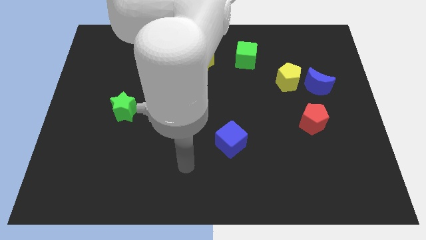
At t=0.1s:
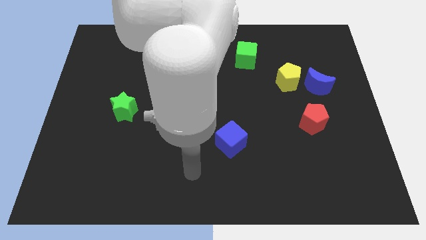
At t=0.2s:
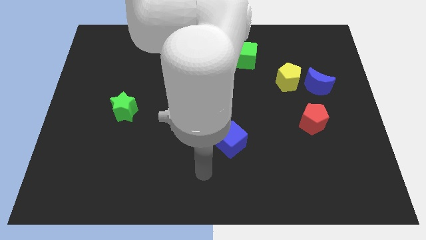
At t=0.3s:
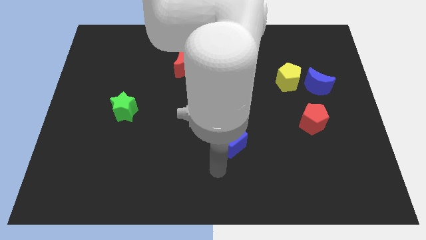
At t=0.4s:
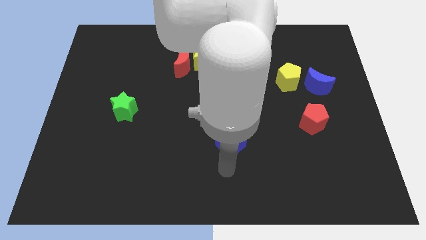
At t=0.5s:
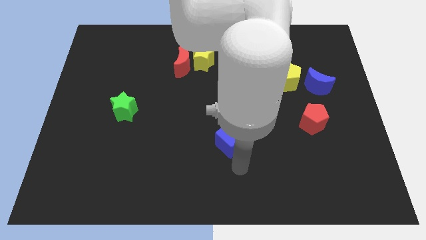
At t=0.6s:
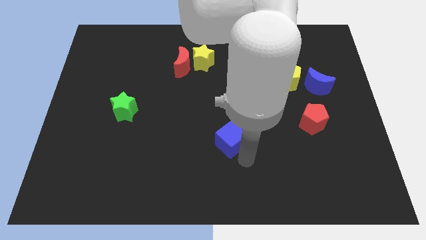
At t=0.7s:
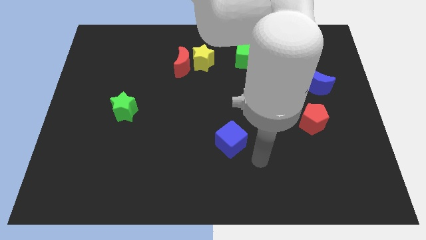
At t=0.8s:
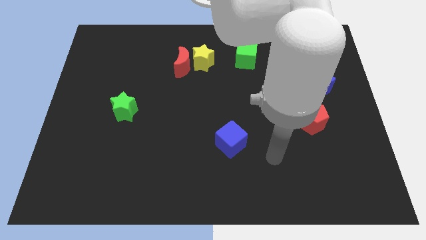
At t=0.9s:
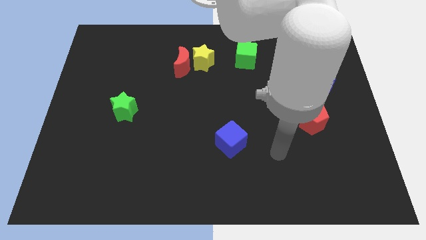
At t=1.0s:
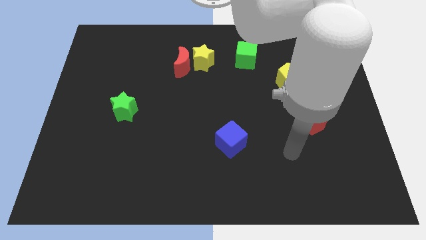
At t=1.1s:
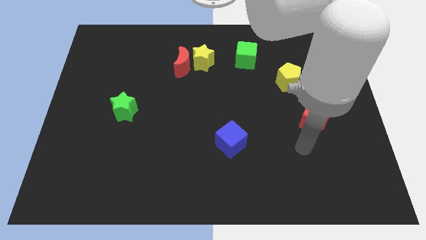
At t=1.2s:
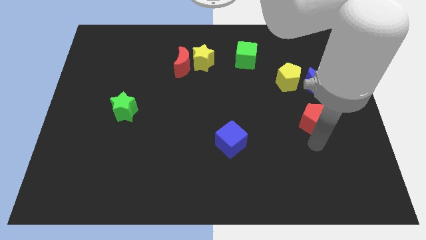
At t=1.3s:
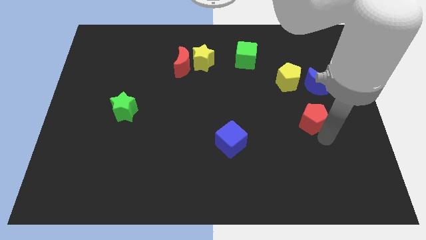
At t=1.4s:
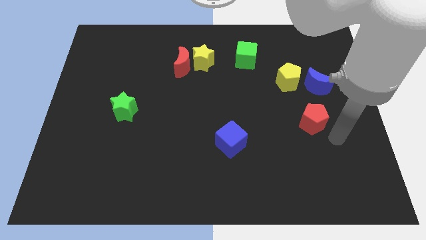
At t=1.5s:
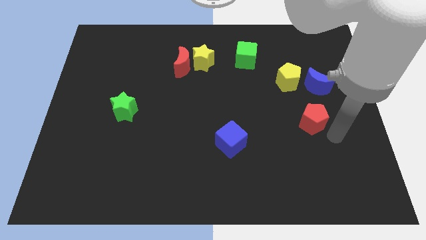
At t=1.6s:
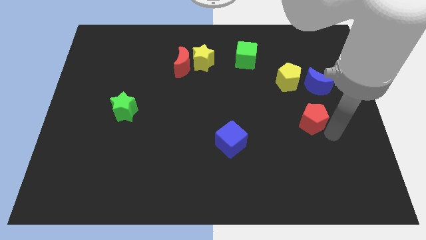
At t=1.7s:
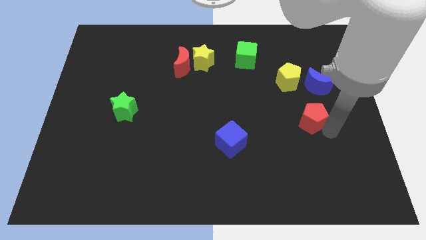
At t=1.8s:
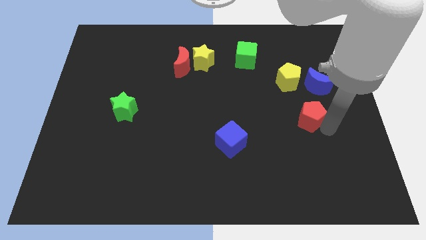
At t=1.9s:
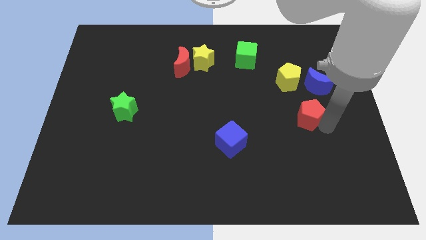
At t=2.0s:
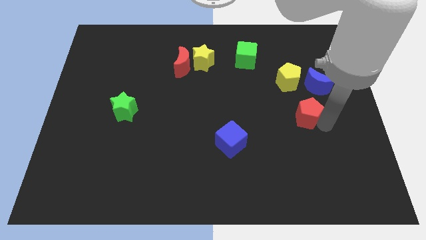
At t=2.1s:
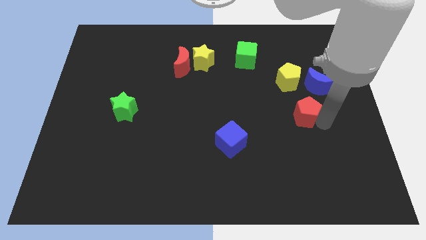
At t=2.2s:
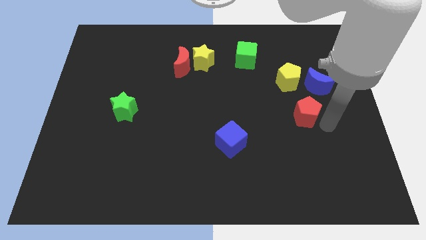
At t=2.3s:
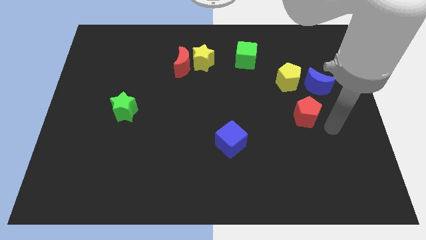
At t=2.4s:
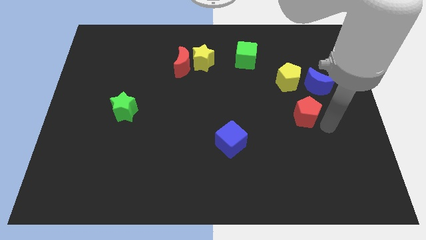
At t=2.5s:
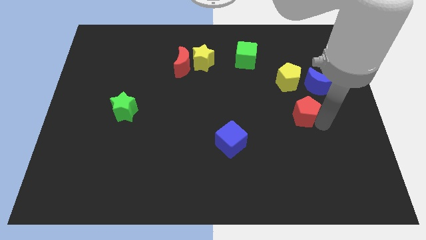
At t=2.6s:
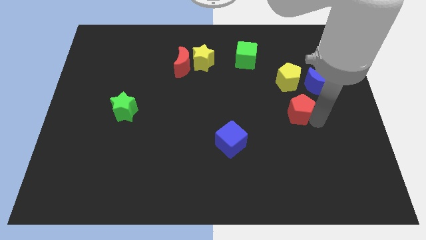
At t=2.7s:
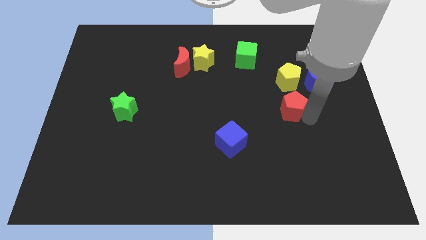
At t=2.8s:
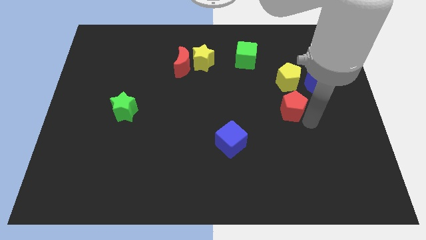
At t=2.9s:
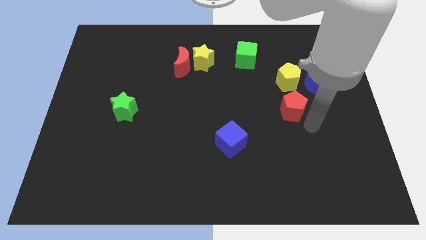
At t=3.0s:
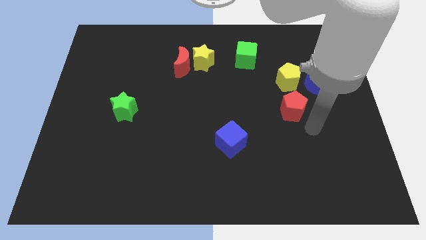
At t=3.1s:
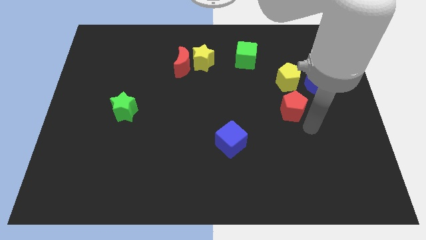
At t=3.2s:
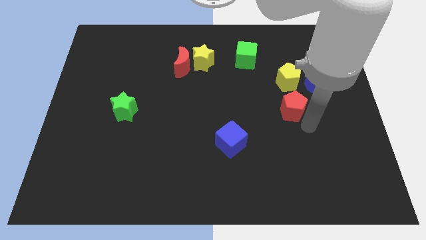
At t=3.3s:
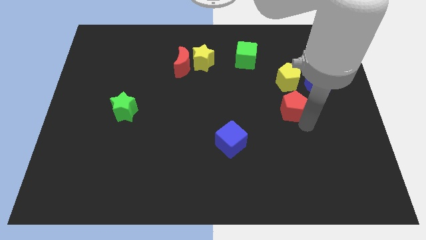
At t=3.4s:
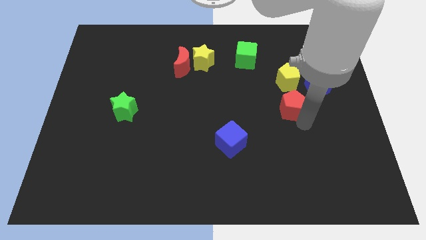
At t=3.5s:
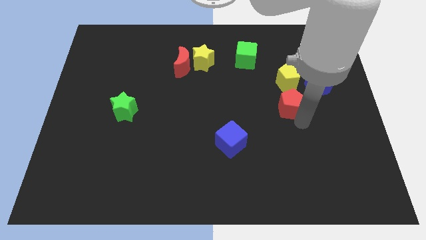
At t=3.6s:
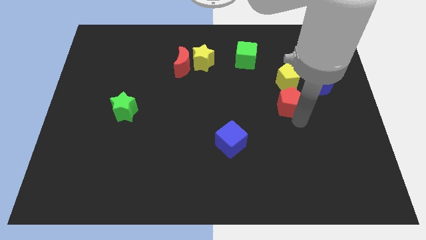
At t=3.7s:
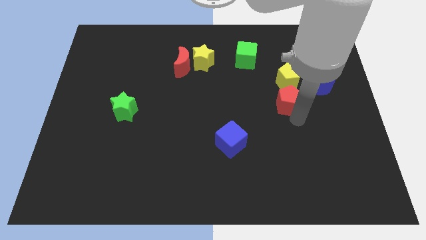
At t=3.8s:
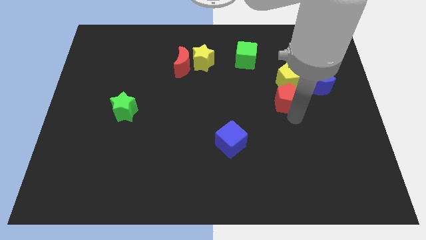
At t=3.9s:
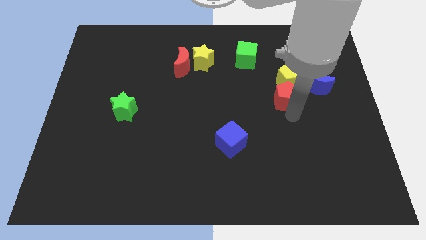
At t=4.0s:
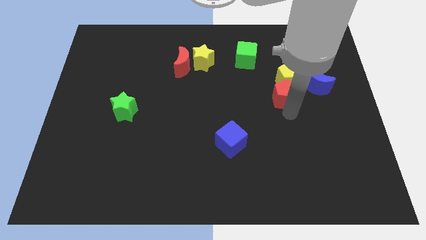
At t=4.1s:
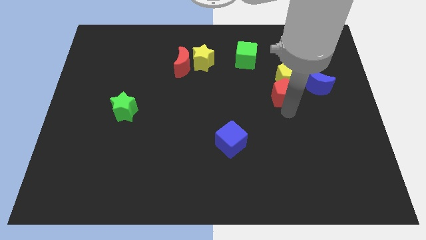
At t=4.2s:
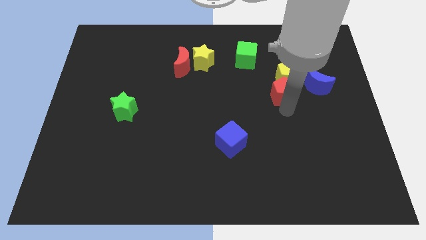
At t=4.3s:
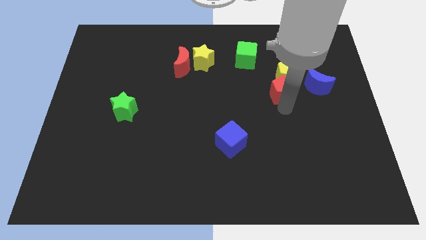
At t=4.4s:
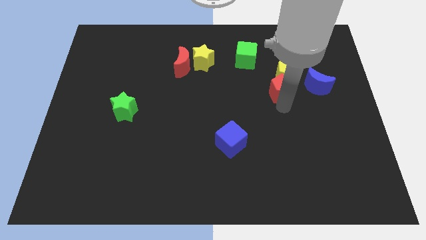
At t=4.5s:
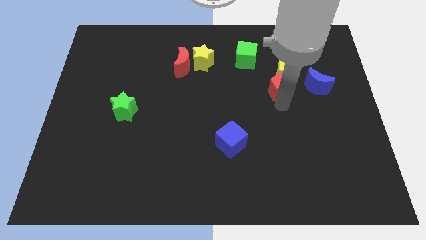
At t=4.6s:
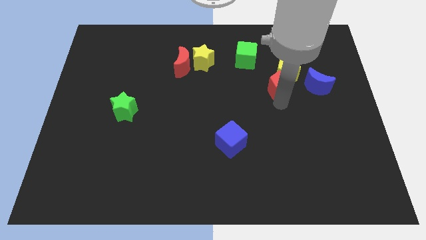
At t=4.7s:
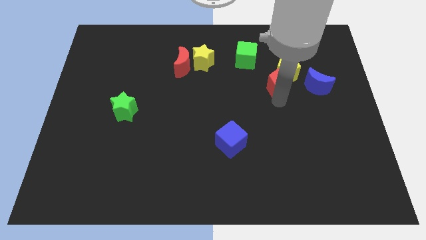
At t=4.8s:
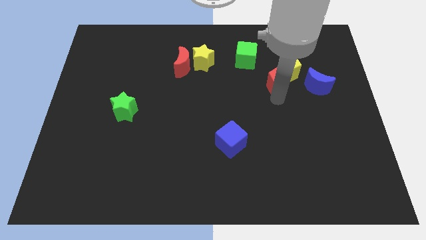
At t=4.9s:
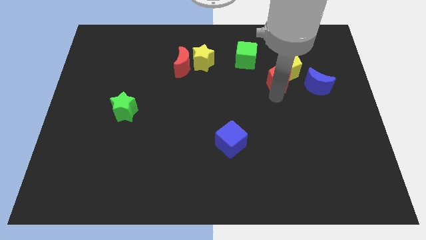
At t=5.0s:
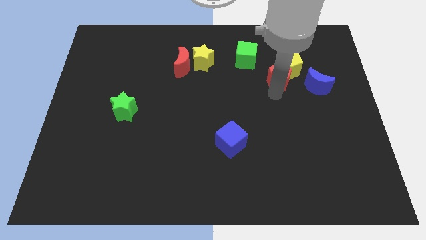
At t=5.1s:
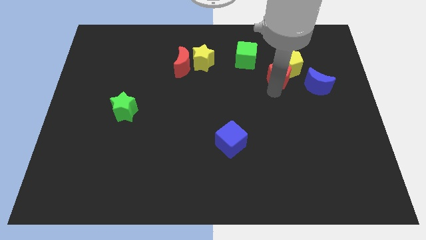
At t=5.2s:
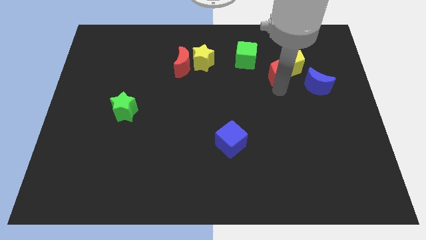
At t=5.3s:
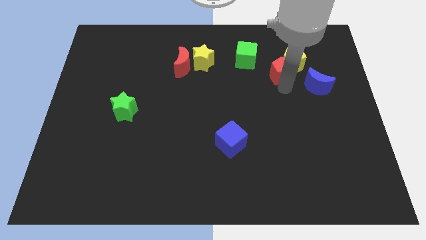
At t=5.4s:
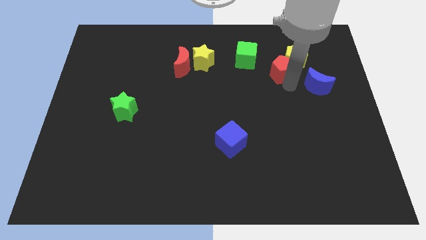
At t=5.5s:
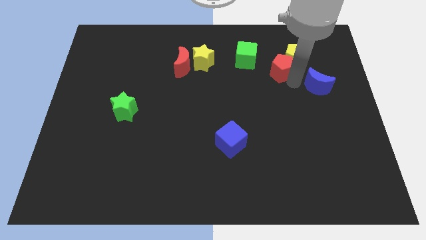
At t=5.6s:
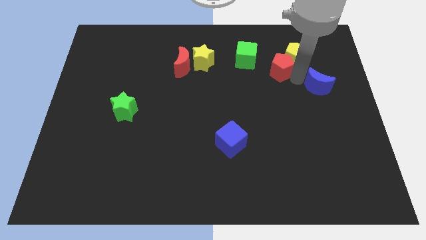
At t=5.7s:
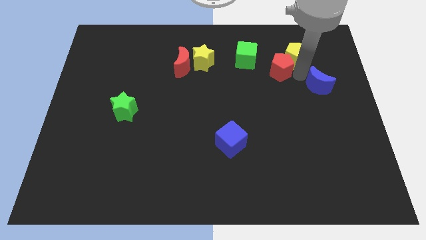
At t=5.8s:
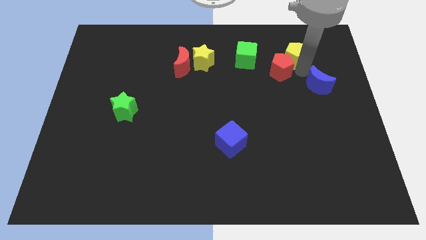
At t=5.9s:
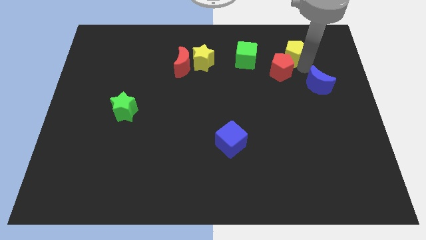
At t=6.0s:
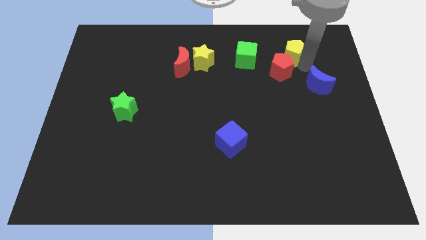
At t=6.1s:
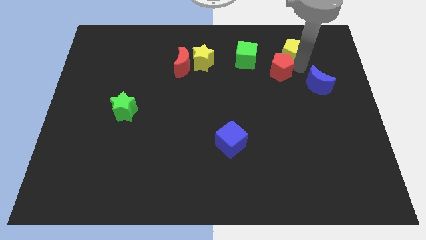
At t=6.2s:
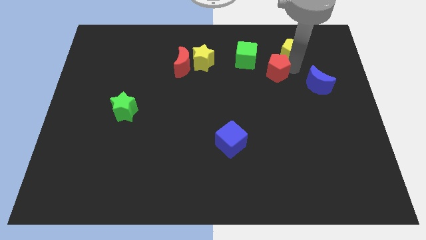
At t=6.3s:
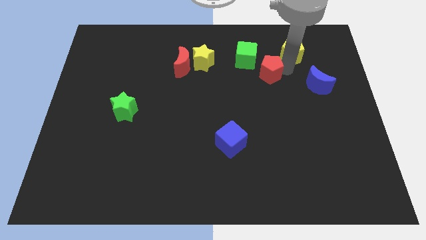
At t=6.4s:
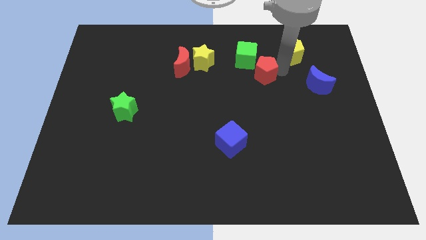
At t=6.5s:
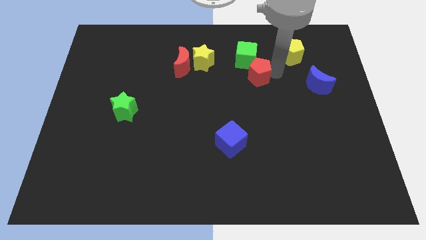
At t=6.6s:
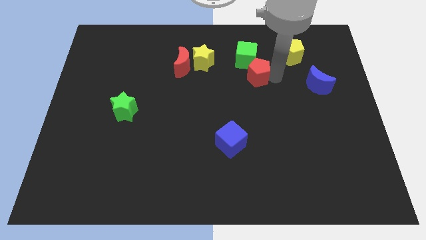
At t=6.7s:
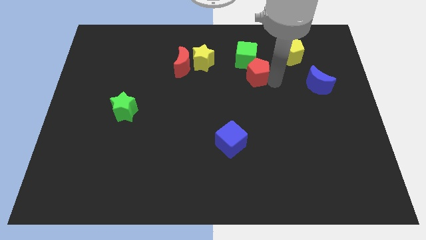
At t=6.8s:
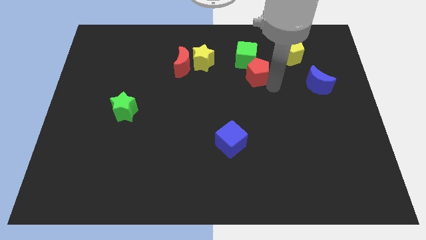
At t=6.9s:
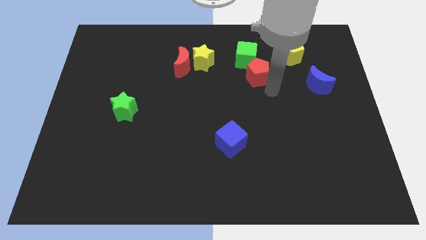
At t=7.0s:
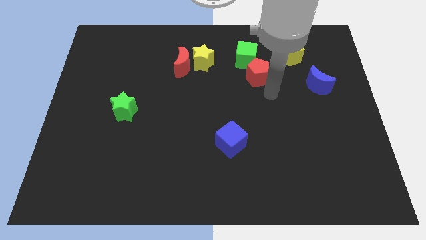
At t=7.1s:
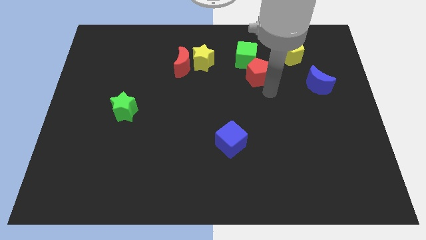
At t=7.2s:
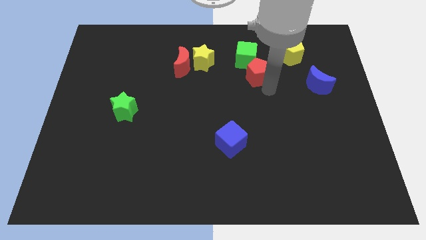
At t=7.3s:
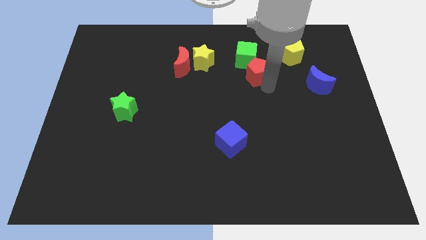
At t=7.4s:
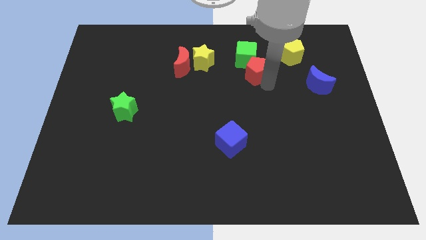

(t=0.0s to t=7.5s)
put the red pentagon next to the green cube
